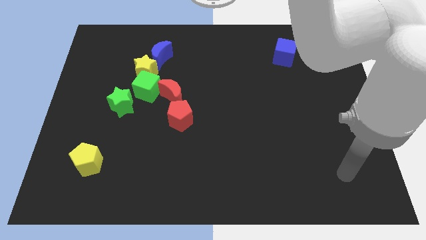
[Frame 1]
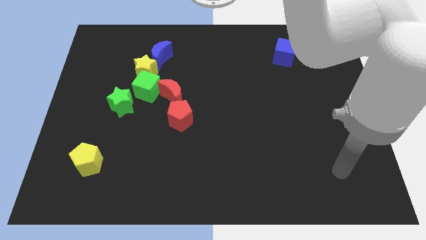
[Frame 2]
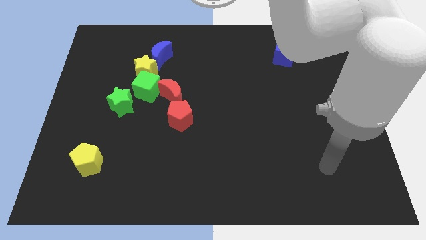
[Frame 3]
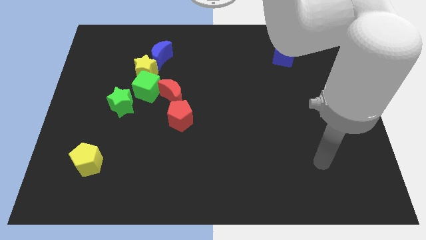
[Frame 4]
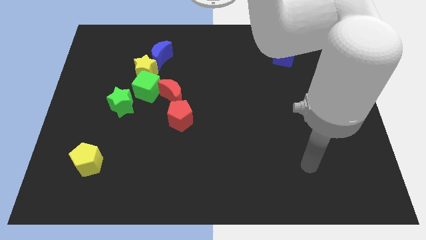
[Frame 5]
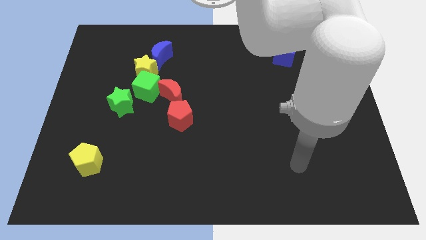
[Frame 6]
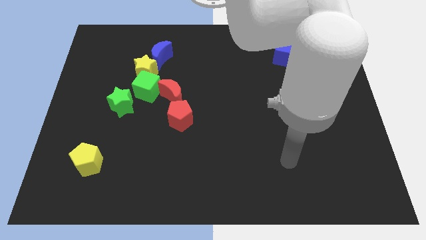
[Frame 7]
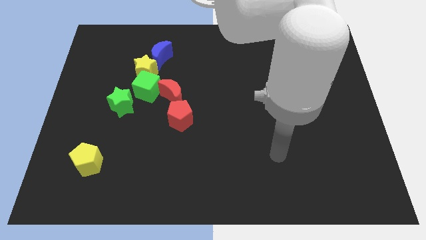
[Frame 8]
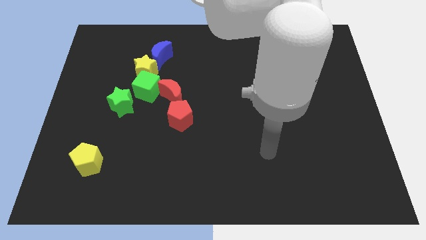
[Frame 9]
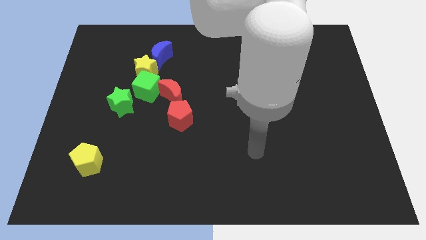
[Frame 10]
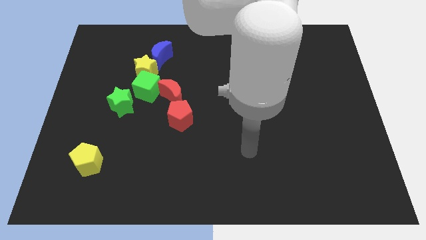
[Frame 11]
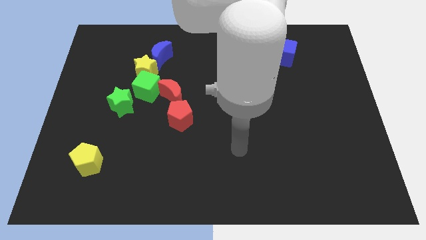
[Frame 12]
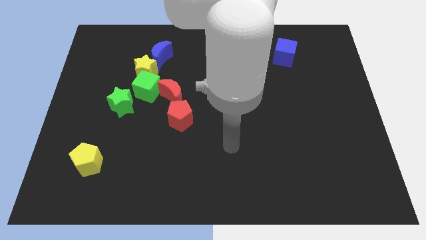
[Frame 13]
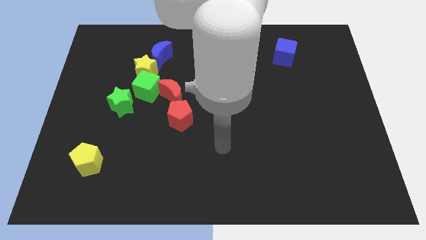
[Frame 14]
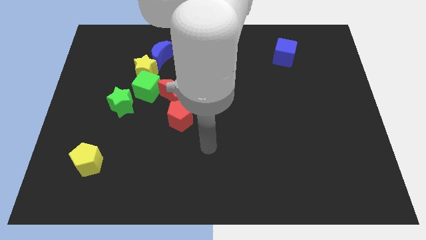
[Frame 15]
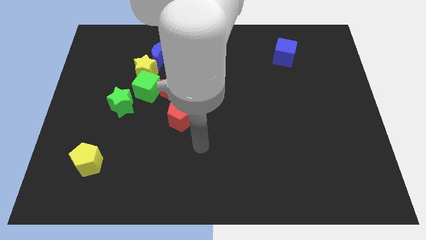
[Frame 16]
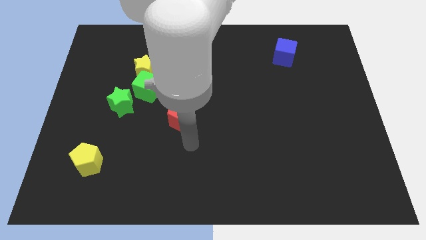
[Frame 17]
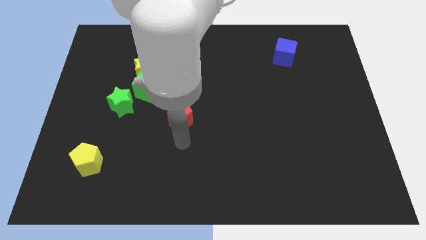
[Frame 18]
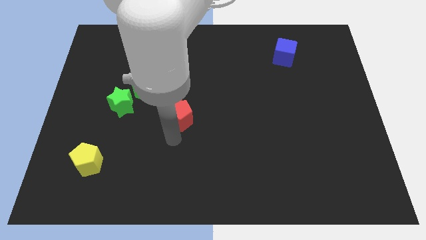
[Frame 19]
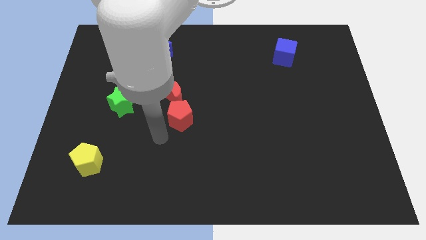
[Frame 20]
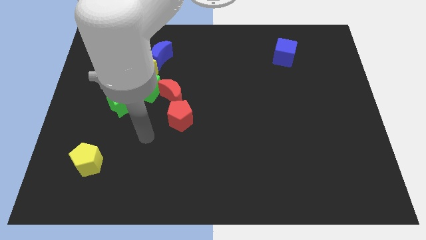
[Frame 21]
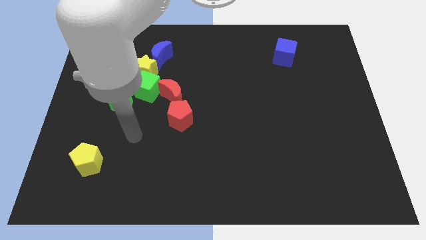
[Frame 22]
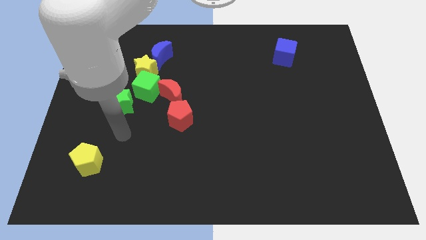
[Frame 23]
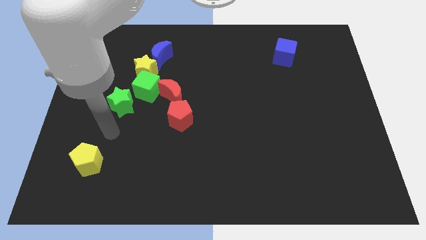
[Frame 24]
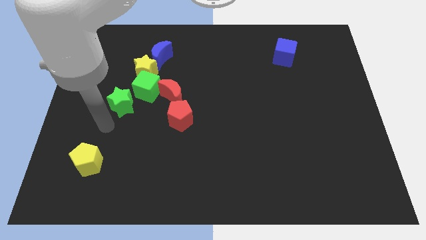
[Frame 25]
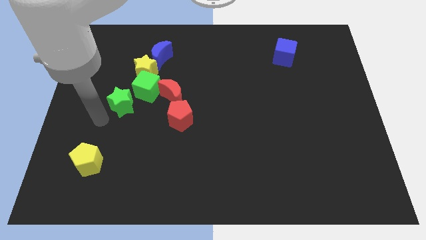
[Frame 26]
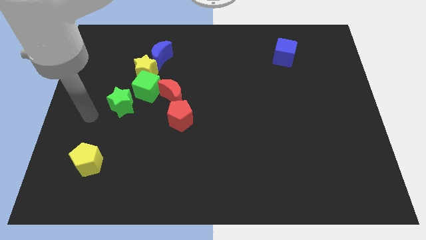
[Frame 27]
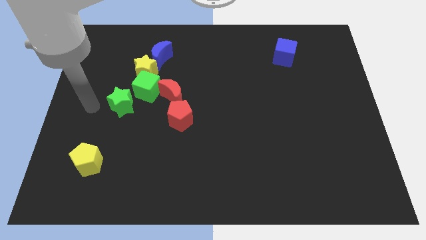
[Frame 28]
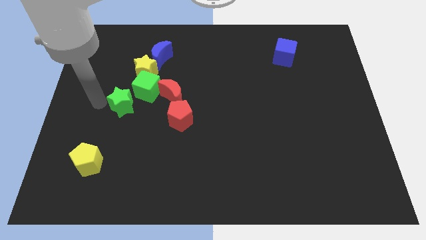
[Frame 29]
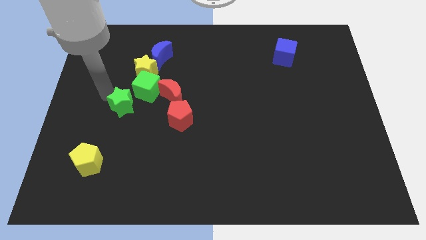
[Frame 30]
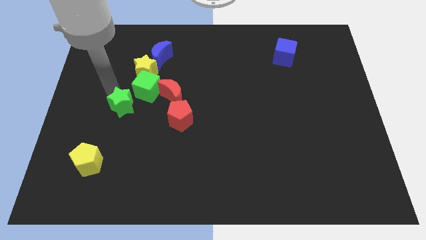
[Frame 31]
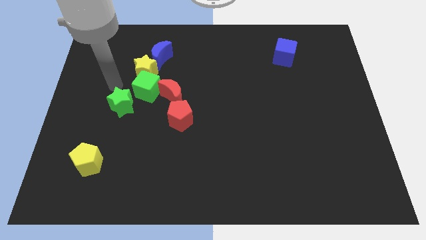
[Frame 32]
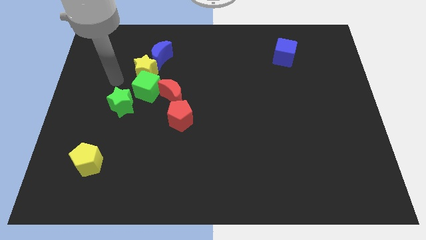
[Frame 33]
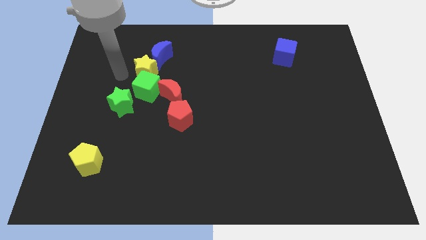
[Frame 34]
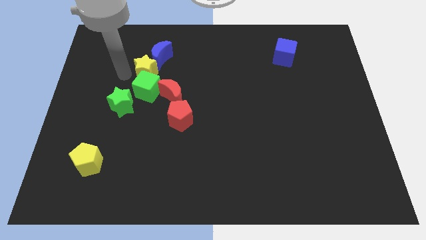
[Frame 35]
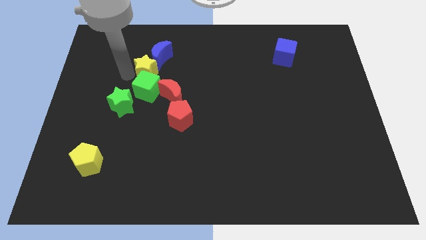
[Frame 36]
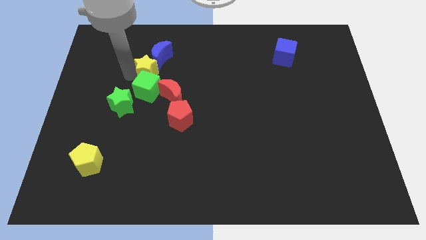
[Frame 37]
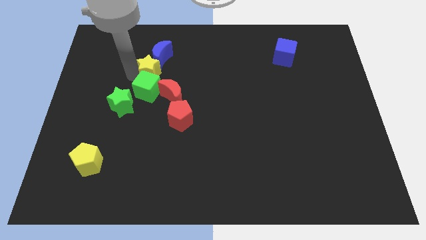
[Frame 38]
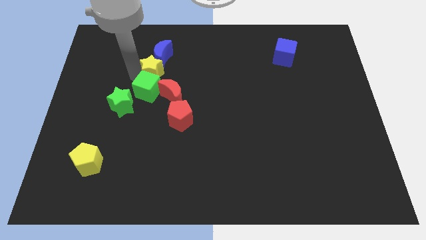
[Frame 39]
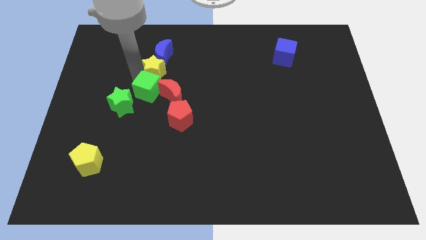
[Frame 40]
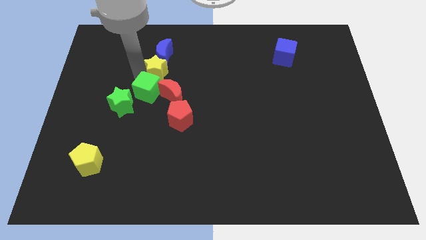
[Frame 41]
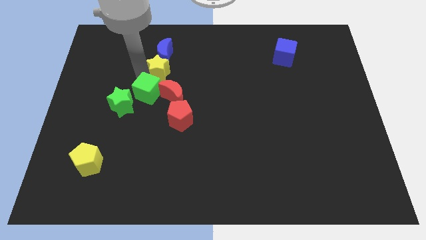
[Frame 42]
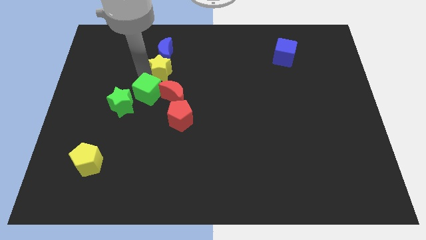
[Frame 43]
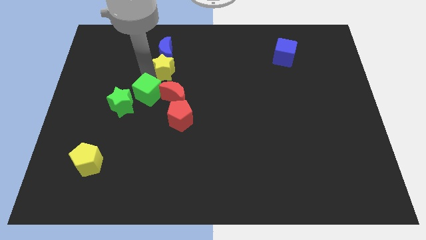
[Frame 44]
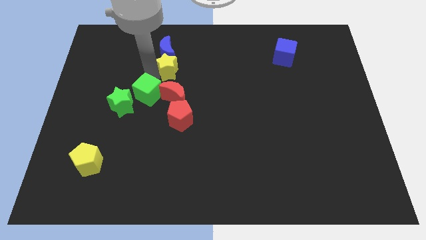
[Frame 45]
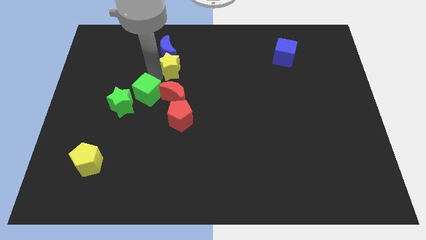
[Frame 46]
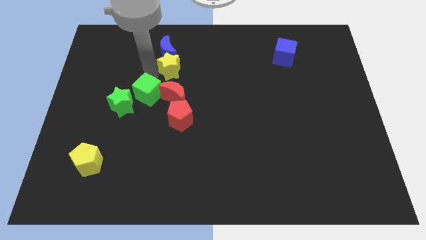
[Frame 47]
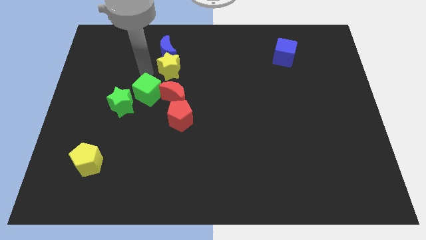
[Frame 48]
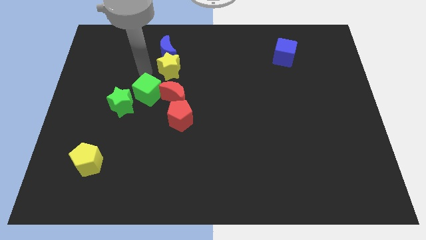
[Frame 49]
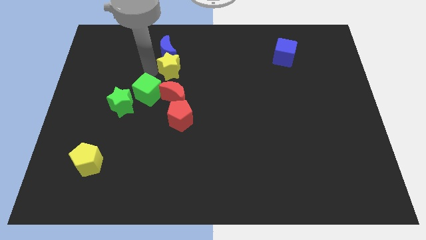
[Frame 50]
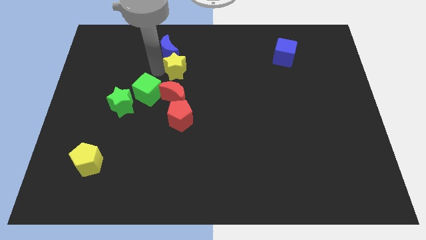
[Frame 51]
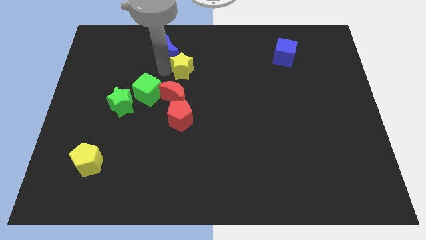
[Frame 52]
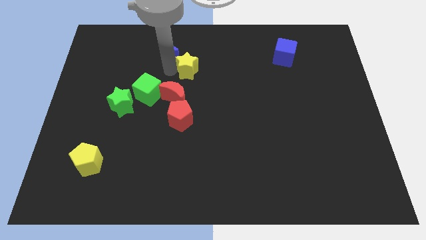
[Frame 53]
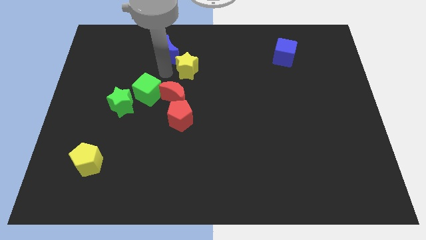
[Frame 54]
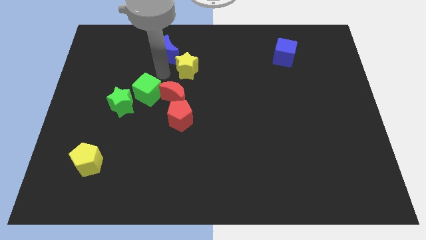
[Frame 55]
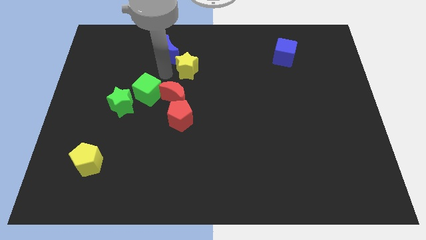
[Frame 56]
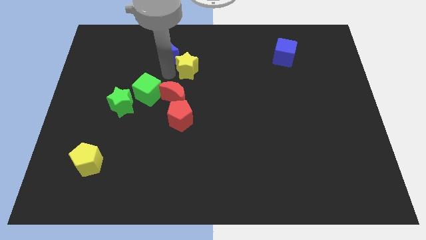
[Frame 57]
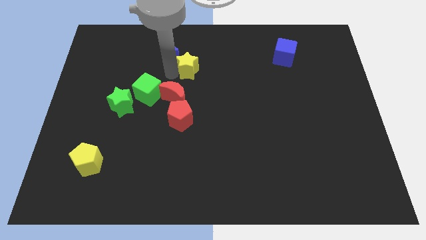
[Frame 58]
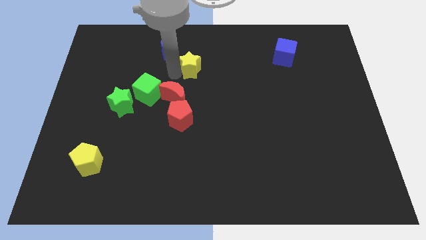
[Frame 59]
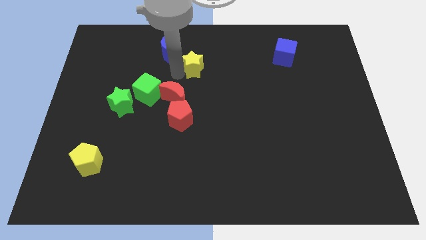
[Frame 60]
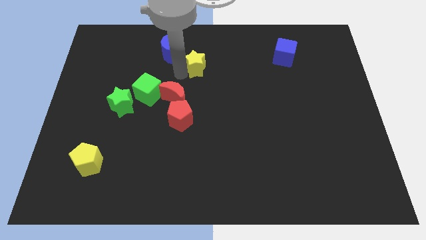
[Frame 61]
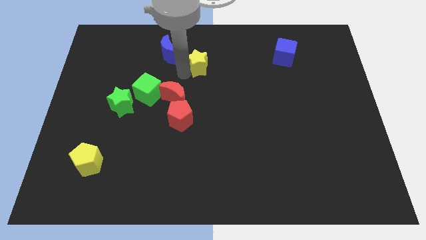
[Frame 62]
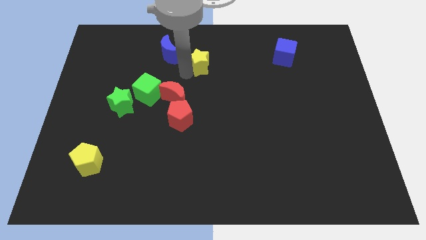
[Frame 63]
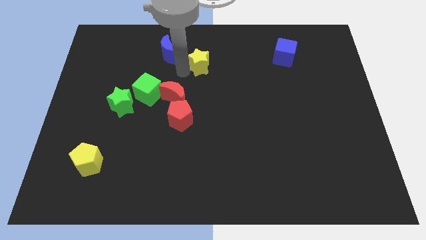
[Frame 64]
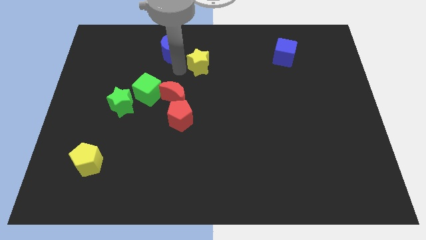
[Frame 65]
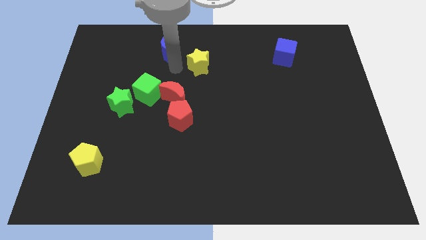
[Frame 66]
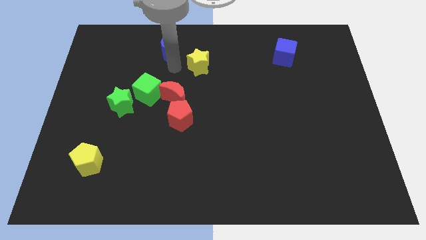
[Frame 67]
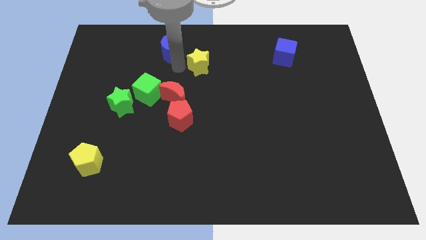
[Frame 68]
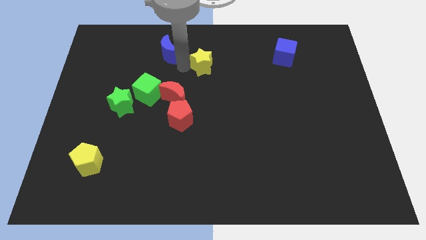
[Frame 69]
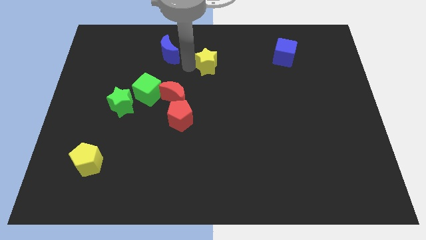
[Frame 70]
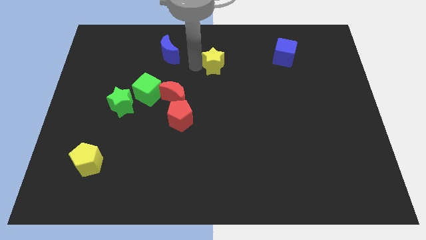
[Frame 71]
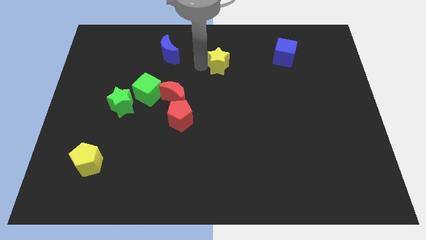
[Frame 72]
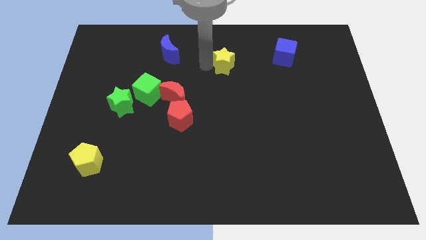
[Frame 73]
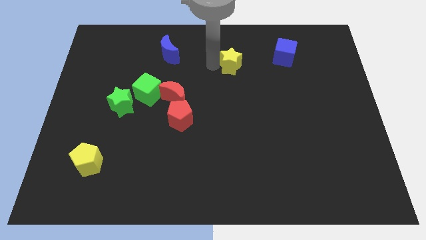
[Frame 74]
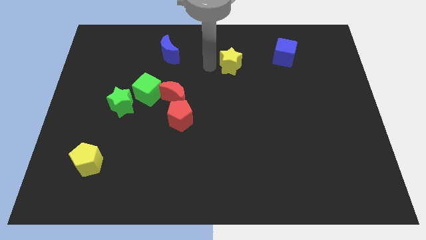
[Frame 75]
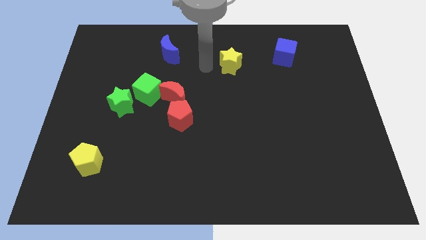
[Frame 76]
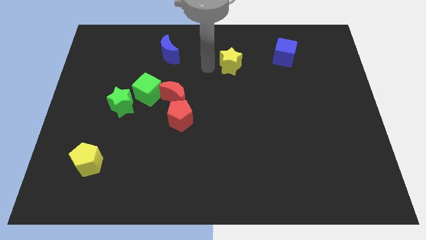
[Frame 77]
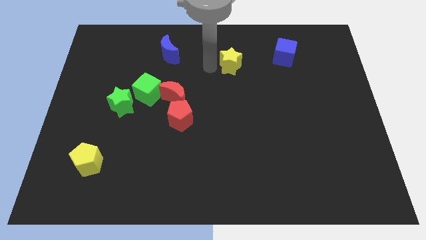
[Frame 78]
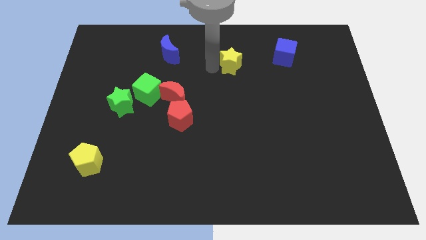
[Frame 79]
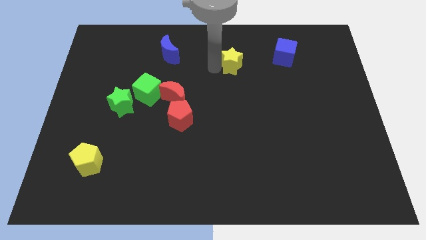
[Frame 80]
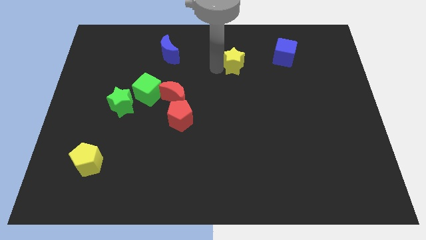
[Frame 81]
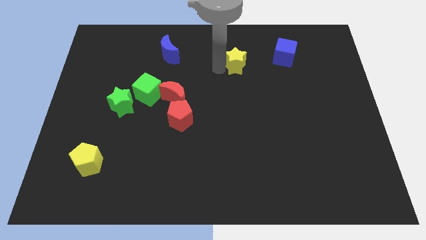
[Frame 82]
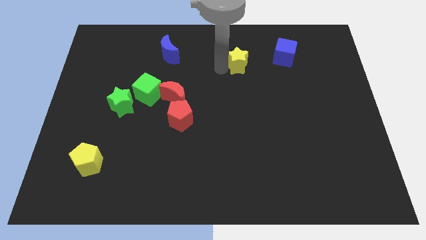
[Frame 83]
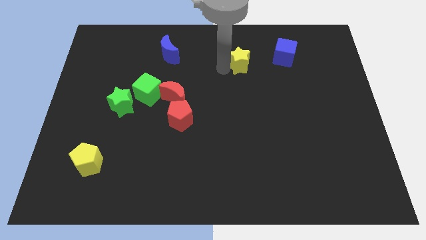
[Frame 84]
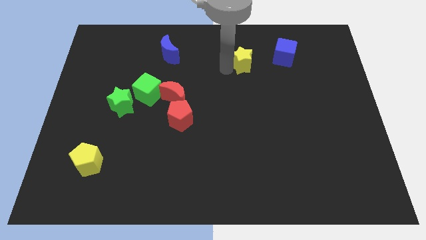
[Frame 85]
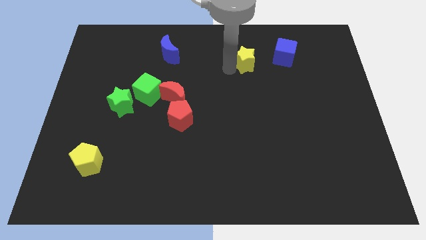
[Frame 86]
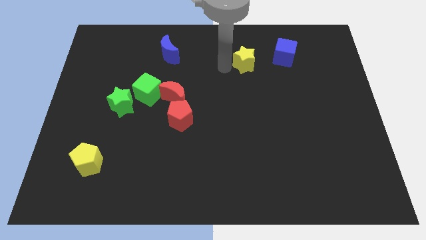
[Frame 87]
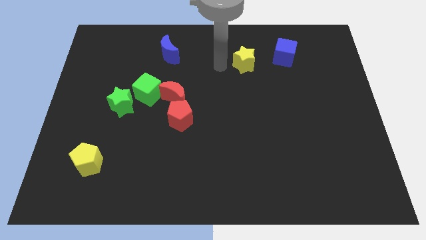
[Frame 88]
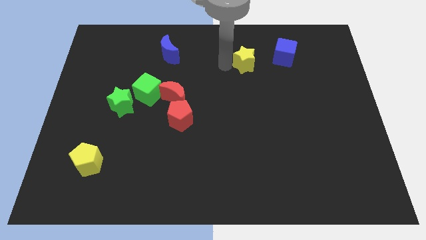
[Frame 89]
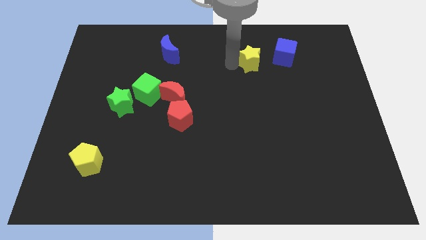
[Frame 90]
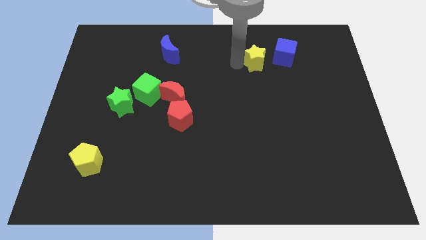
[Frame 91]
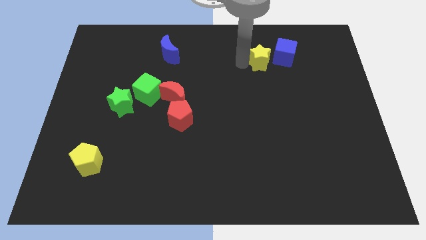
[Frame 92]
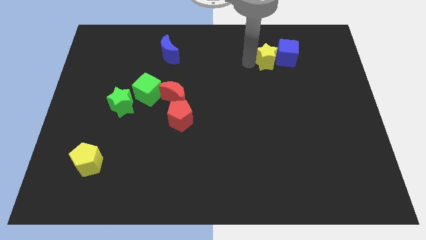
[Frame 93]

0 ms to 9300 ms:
put the yellow star towards the blue cube
